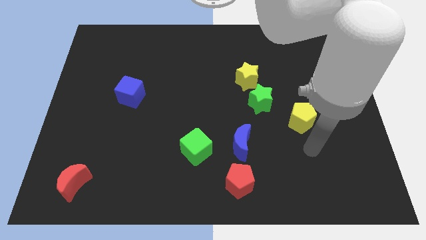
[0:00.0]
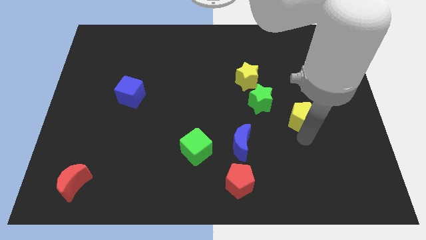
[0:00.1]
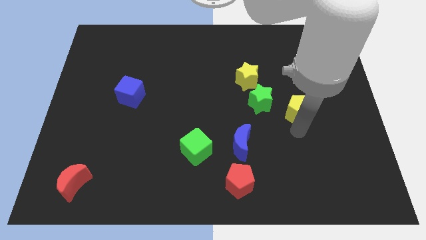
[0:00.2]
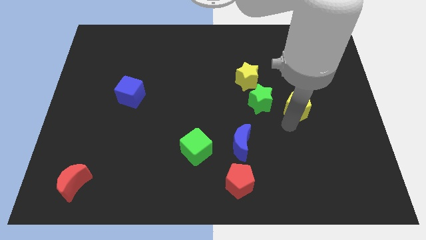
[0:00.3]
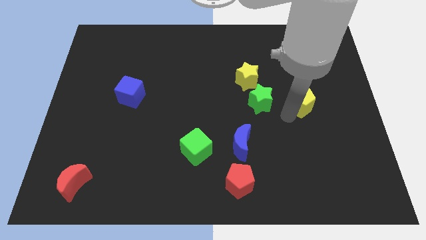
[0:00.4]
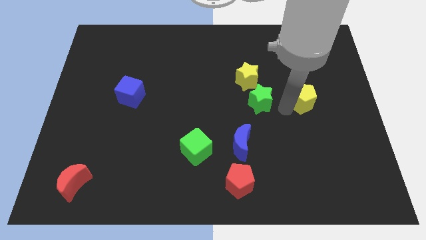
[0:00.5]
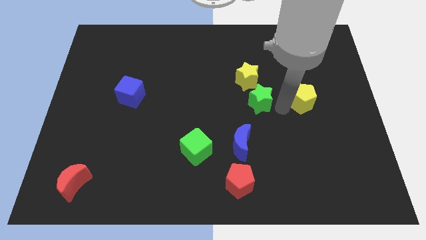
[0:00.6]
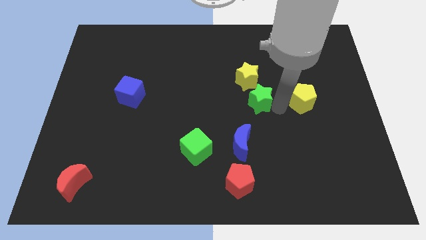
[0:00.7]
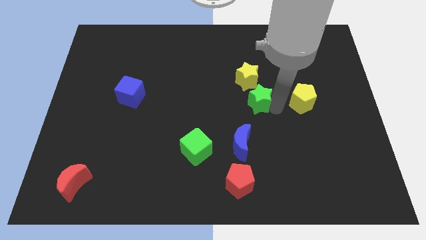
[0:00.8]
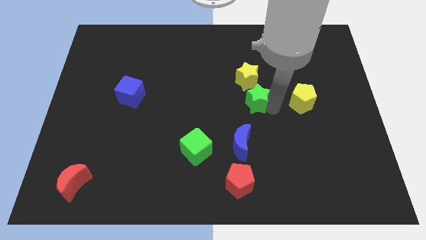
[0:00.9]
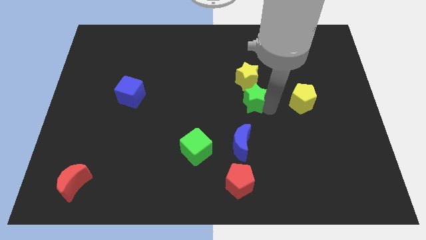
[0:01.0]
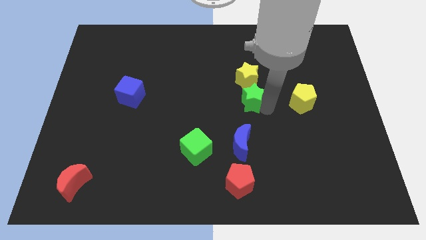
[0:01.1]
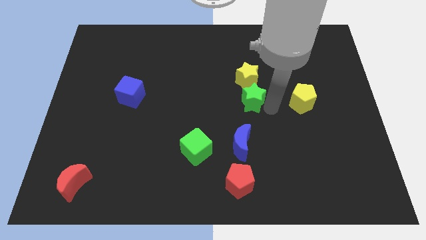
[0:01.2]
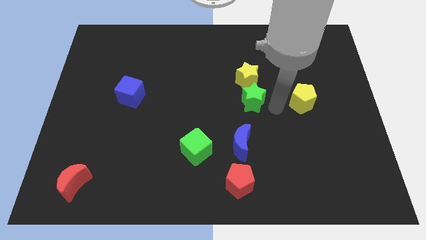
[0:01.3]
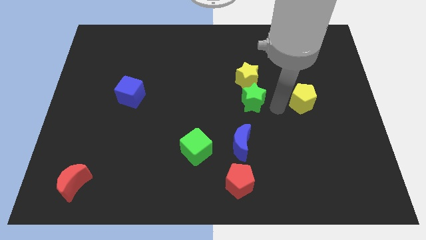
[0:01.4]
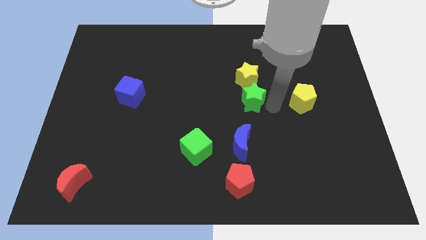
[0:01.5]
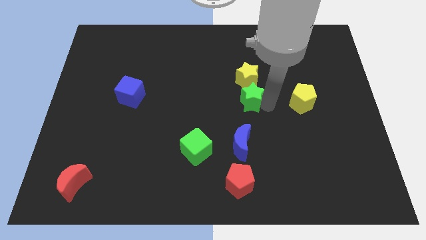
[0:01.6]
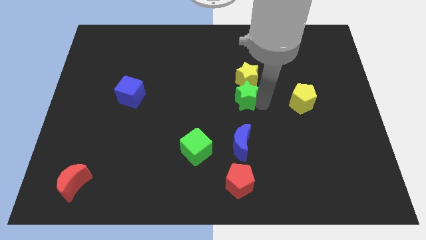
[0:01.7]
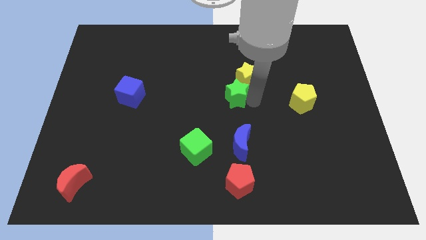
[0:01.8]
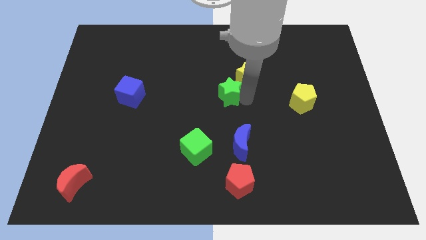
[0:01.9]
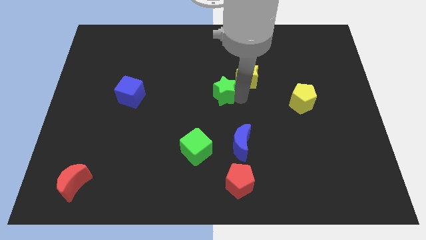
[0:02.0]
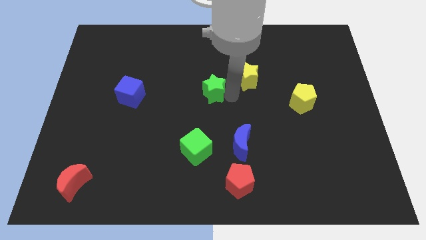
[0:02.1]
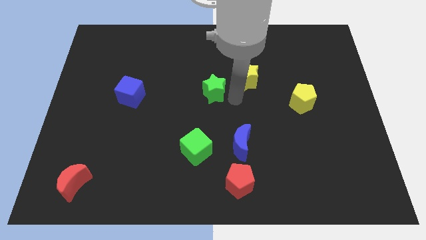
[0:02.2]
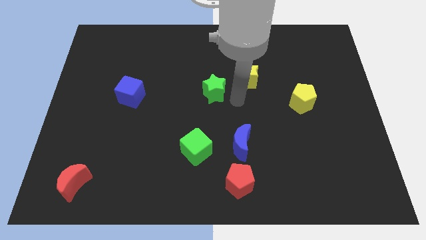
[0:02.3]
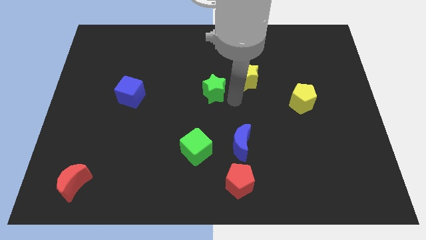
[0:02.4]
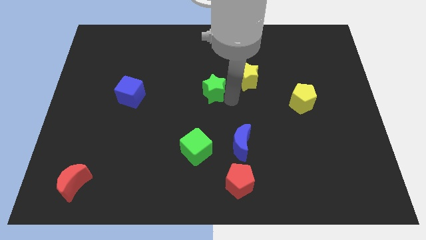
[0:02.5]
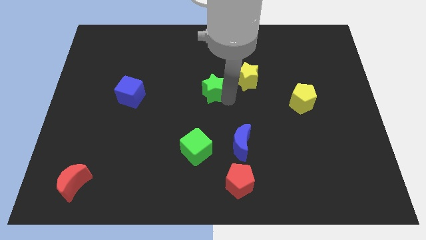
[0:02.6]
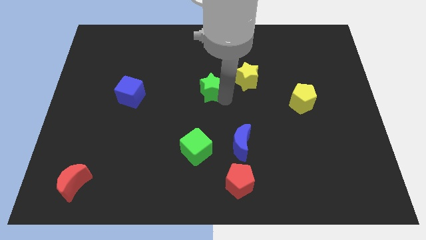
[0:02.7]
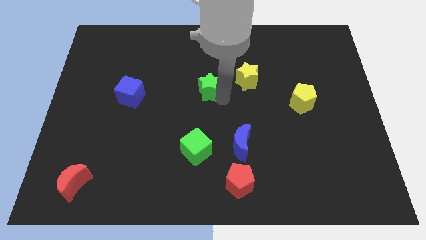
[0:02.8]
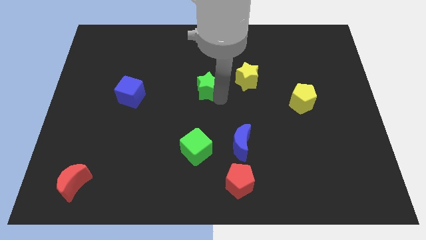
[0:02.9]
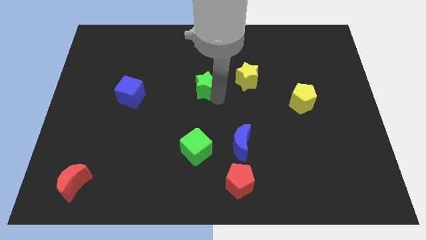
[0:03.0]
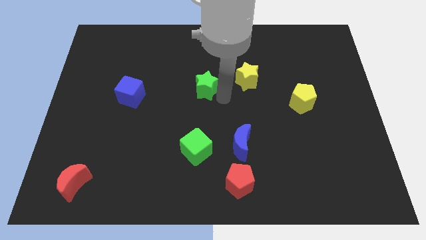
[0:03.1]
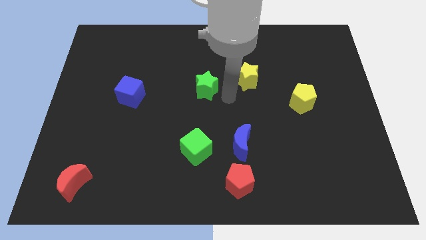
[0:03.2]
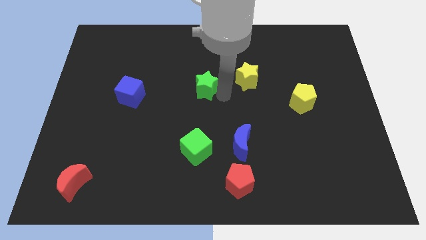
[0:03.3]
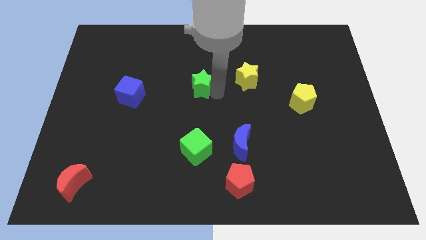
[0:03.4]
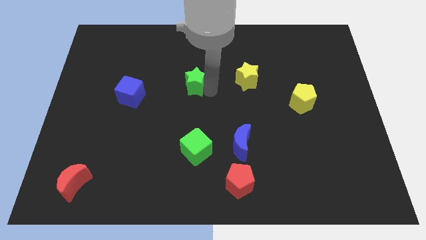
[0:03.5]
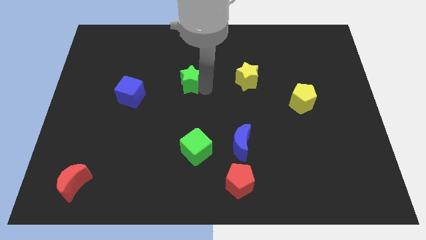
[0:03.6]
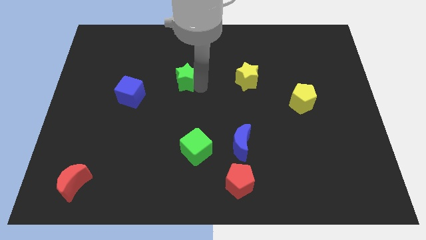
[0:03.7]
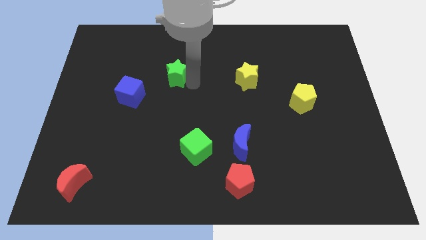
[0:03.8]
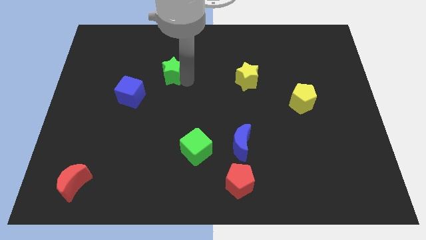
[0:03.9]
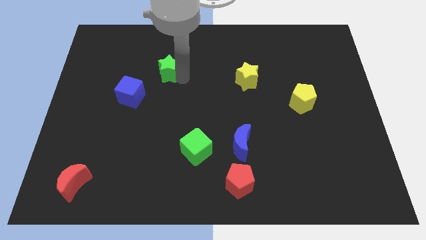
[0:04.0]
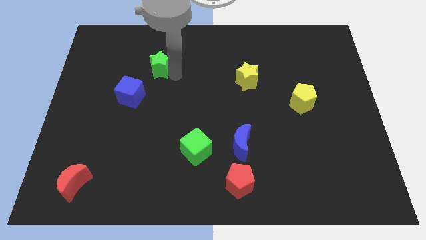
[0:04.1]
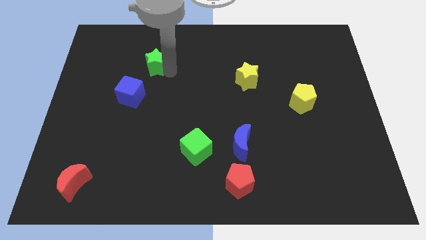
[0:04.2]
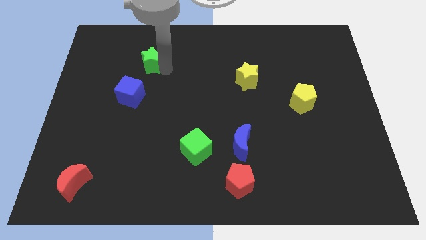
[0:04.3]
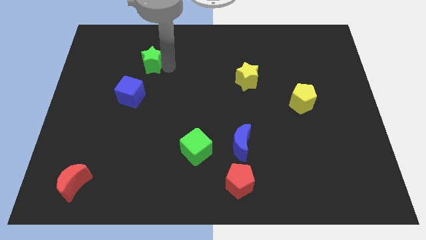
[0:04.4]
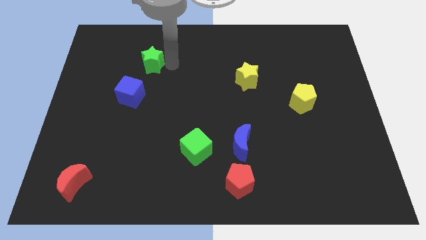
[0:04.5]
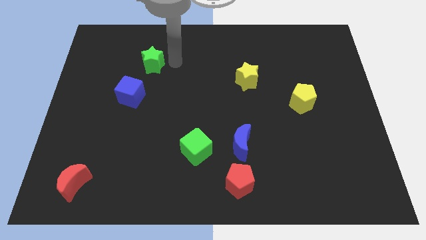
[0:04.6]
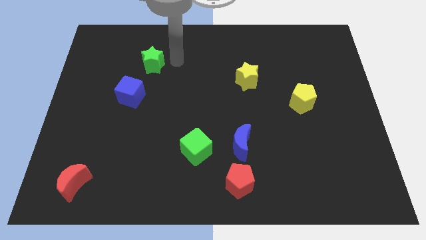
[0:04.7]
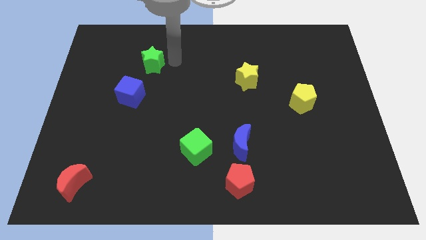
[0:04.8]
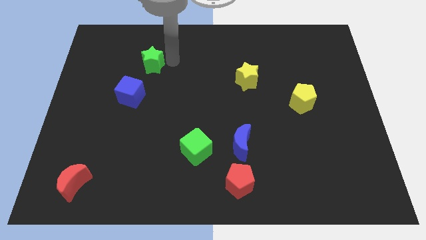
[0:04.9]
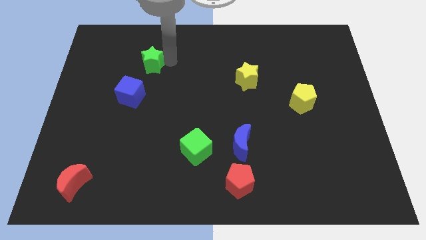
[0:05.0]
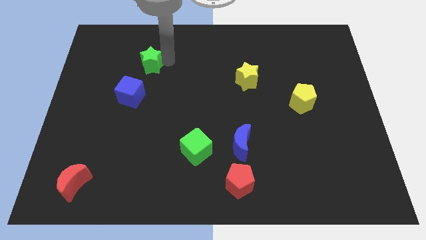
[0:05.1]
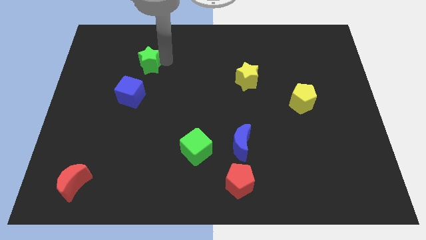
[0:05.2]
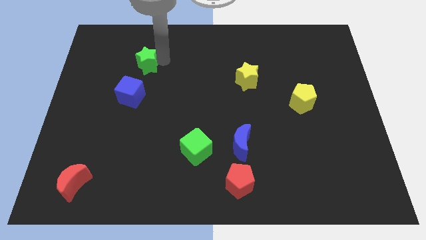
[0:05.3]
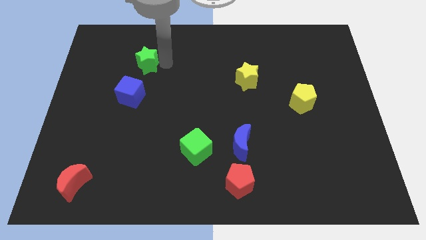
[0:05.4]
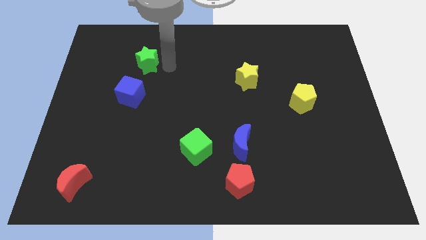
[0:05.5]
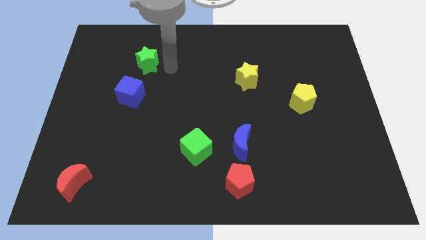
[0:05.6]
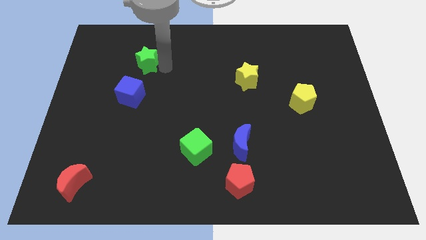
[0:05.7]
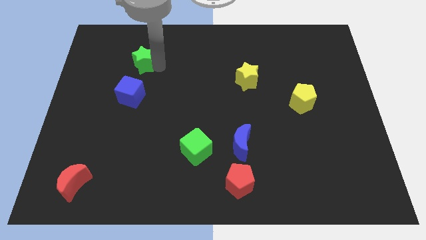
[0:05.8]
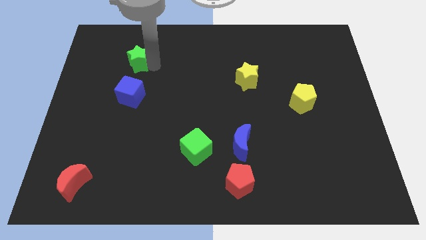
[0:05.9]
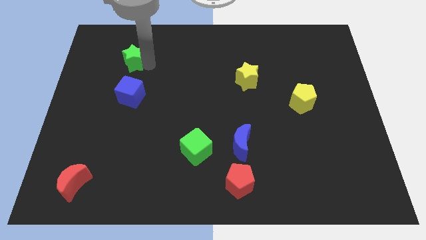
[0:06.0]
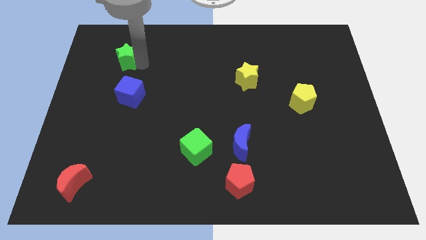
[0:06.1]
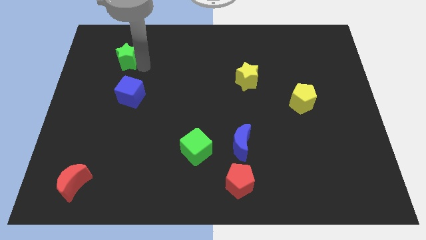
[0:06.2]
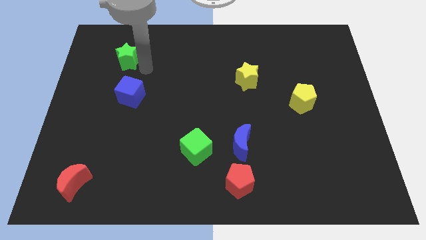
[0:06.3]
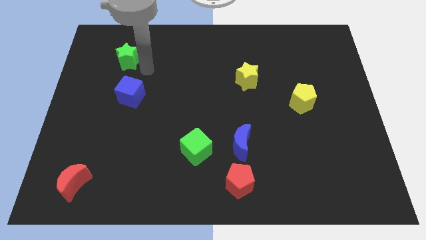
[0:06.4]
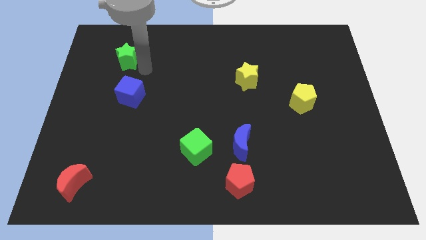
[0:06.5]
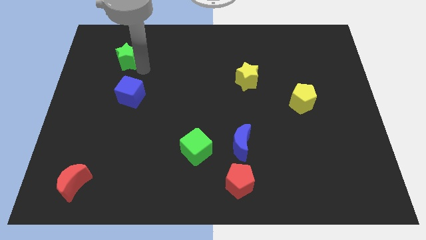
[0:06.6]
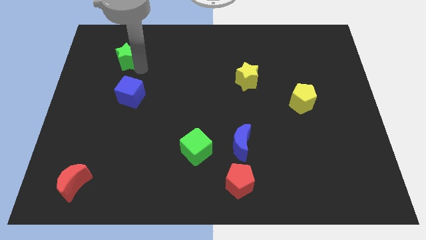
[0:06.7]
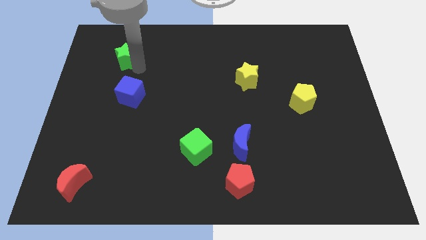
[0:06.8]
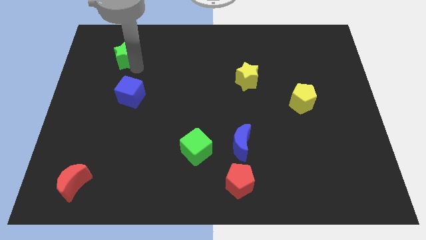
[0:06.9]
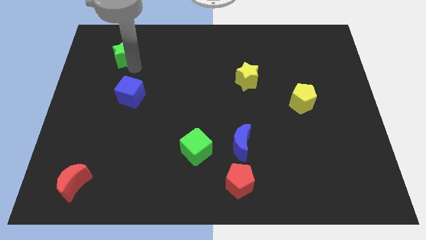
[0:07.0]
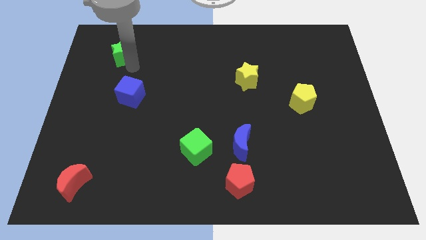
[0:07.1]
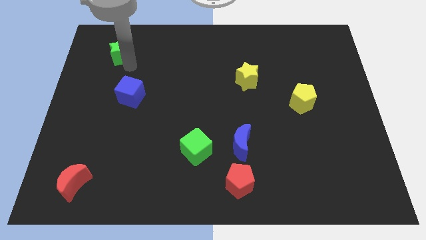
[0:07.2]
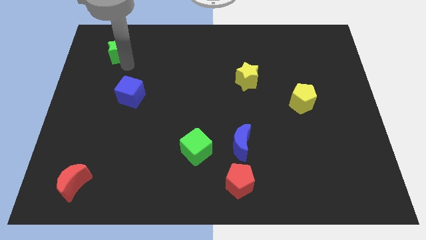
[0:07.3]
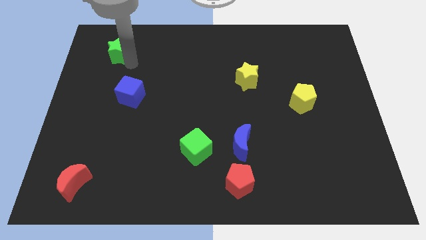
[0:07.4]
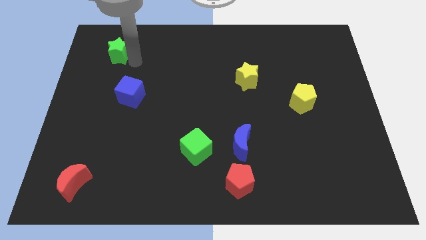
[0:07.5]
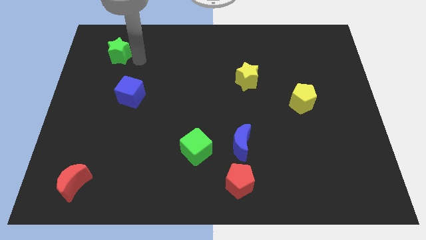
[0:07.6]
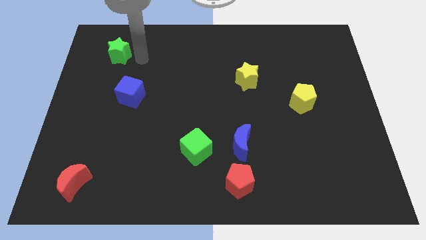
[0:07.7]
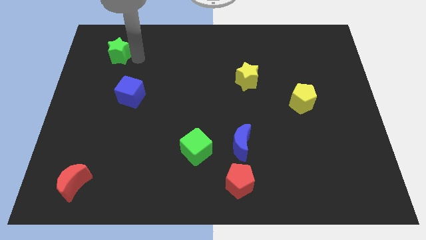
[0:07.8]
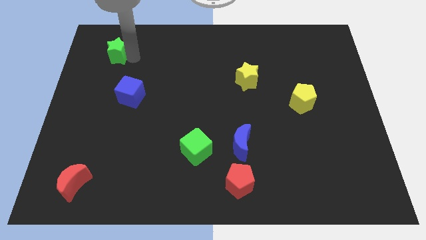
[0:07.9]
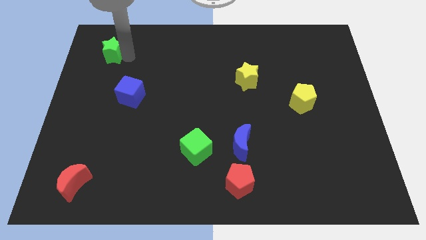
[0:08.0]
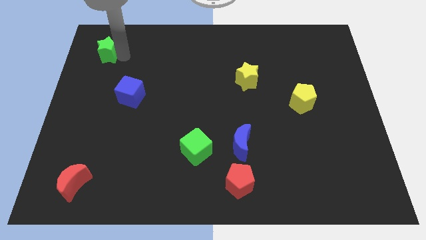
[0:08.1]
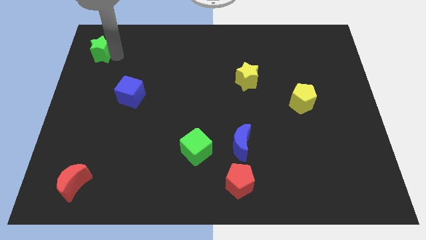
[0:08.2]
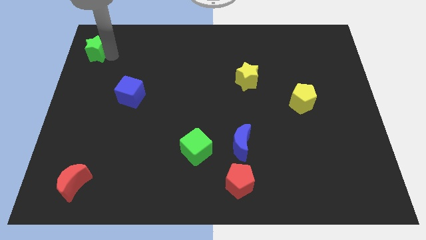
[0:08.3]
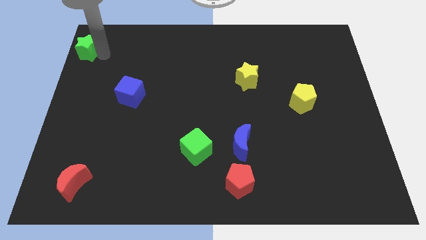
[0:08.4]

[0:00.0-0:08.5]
push the green star to the top left corner
